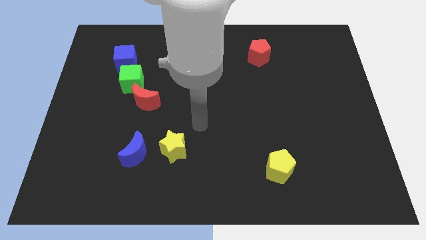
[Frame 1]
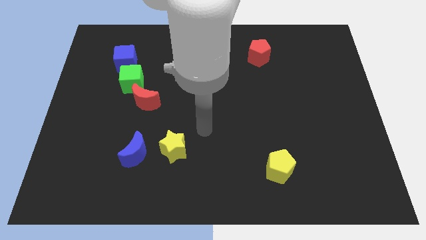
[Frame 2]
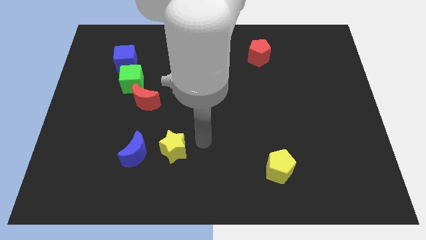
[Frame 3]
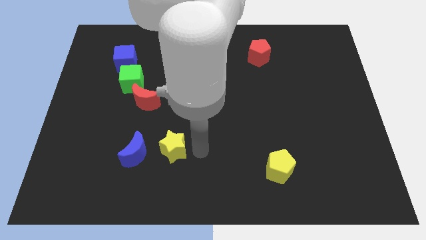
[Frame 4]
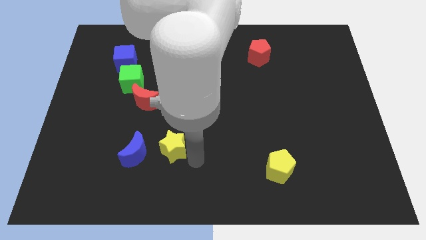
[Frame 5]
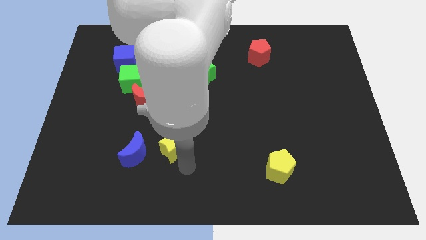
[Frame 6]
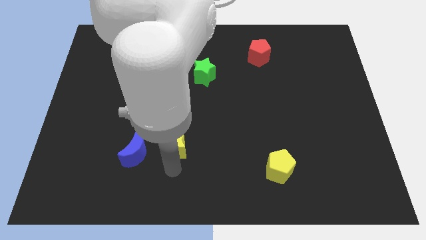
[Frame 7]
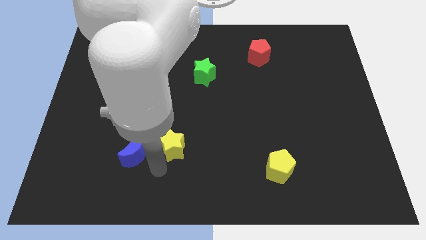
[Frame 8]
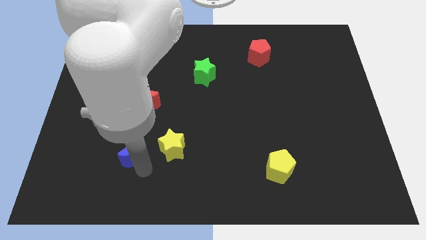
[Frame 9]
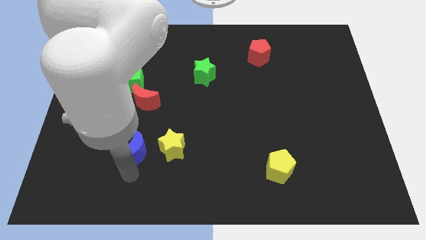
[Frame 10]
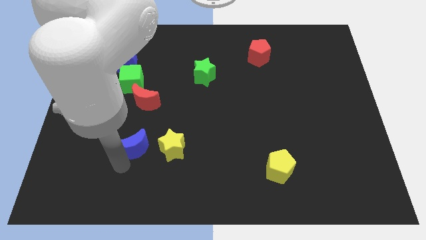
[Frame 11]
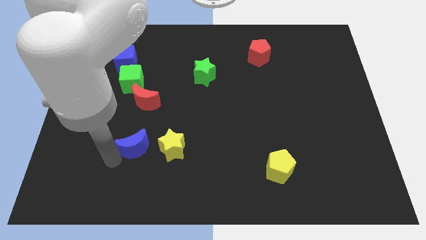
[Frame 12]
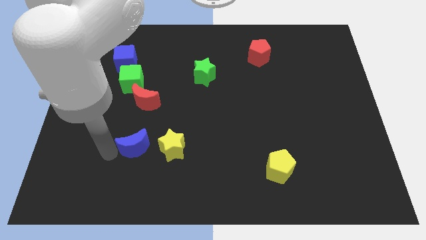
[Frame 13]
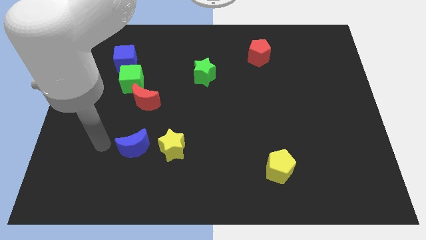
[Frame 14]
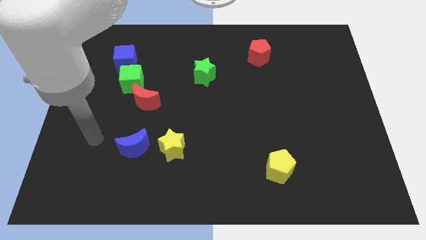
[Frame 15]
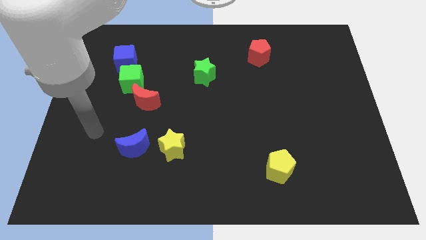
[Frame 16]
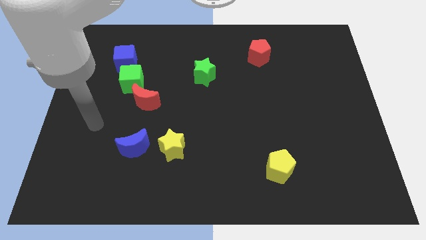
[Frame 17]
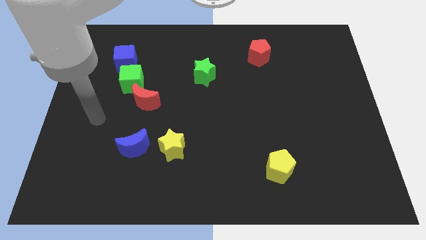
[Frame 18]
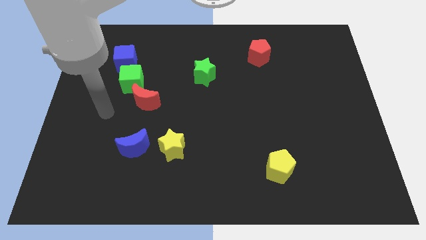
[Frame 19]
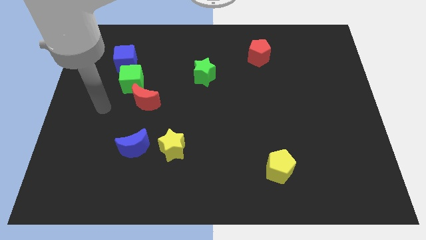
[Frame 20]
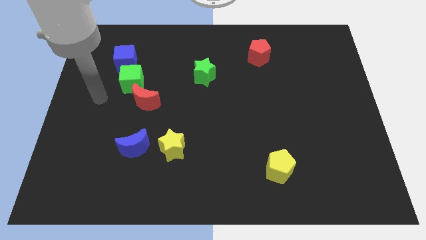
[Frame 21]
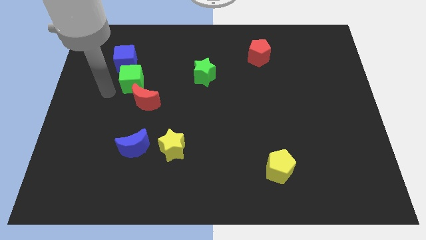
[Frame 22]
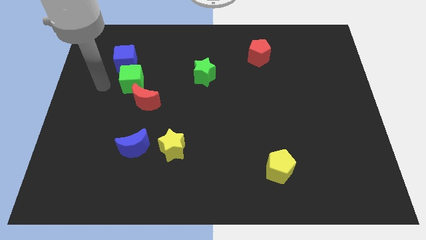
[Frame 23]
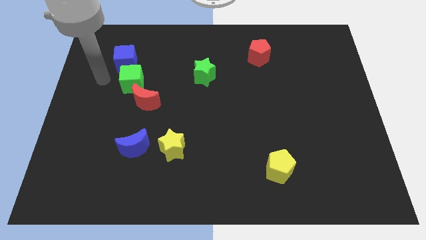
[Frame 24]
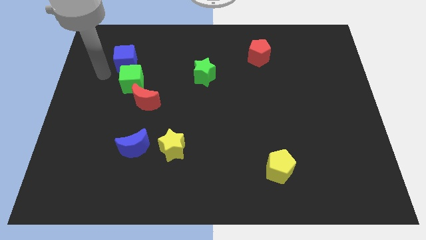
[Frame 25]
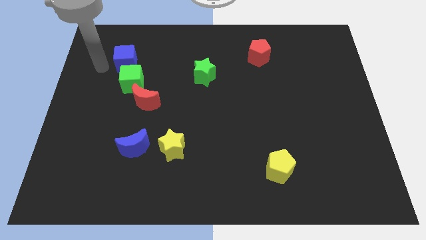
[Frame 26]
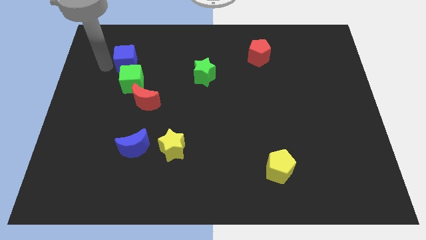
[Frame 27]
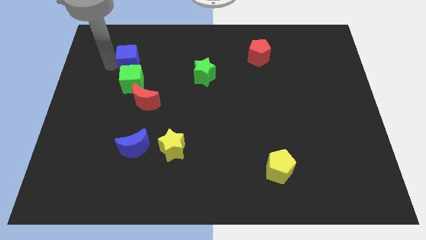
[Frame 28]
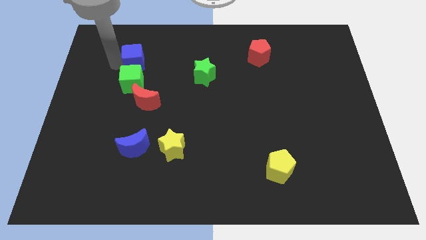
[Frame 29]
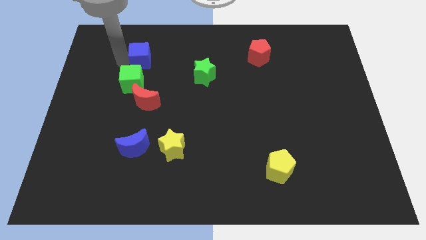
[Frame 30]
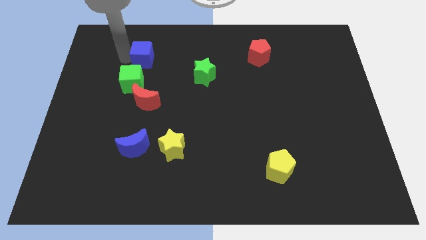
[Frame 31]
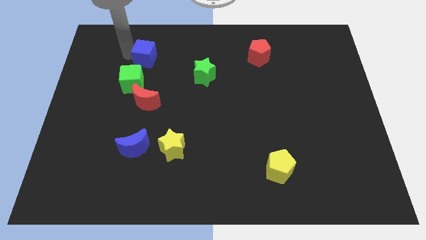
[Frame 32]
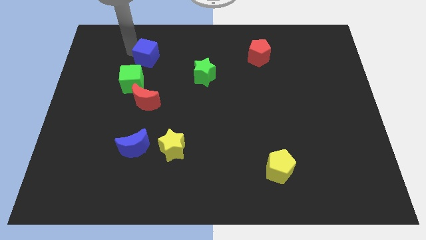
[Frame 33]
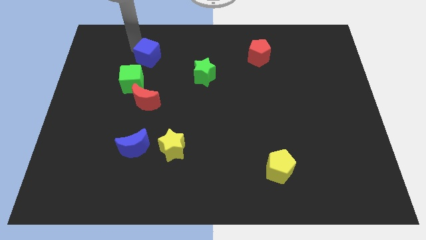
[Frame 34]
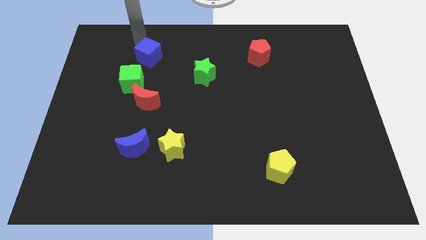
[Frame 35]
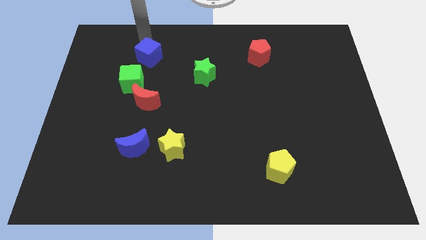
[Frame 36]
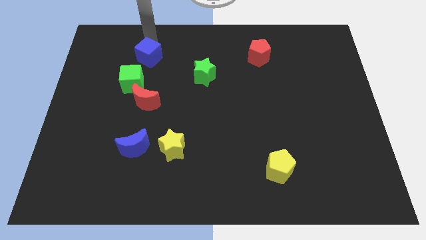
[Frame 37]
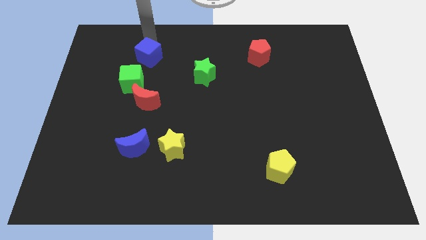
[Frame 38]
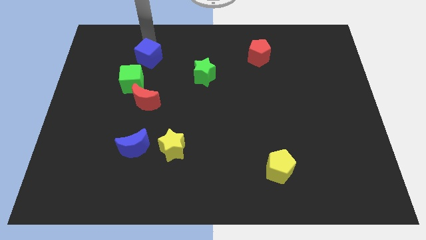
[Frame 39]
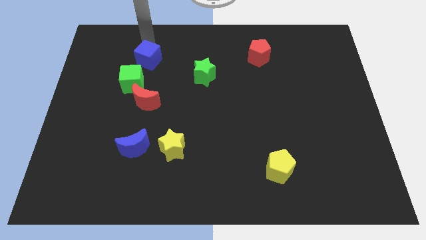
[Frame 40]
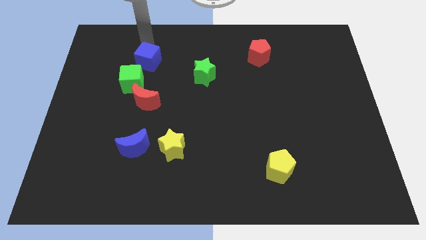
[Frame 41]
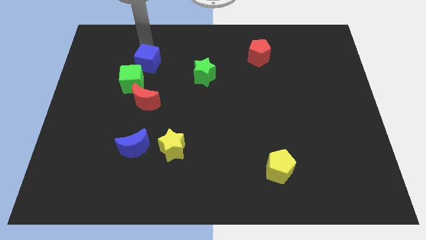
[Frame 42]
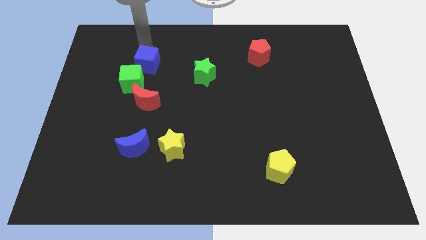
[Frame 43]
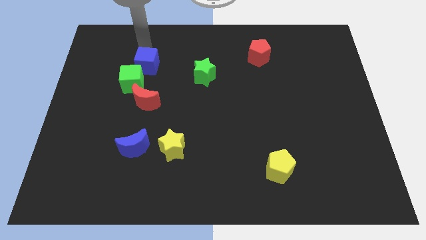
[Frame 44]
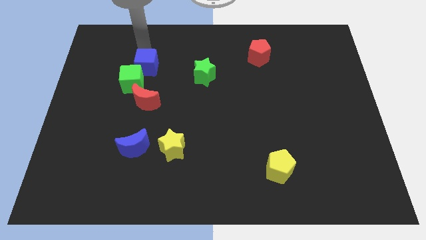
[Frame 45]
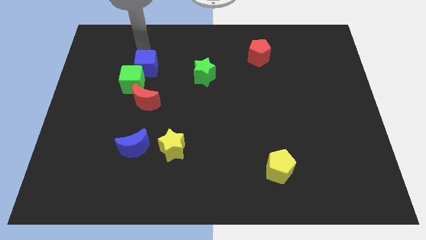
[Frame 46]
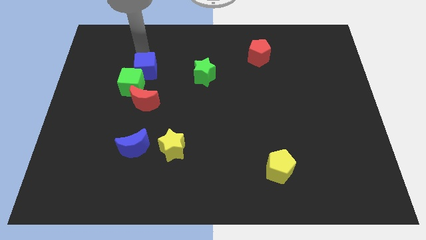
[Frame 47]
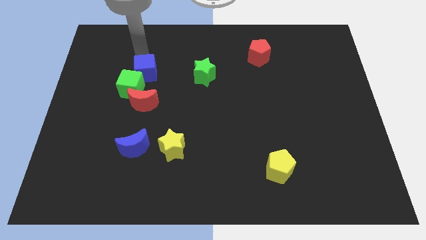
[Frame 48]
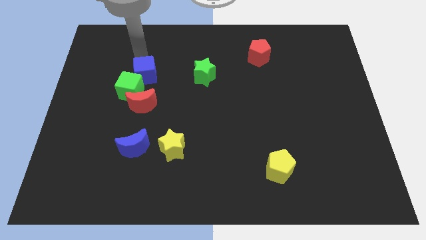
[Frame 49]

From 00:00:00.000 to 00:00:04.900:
slide the blue cube somewhat down and right

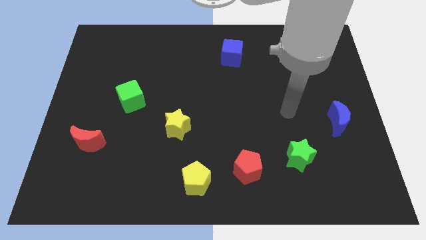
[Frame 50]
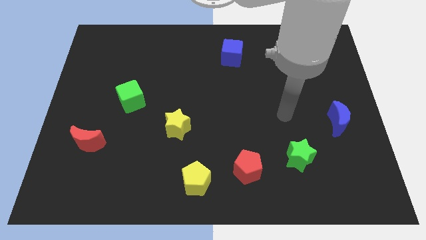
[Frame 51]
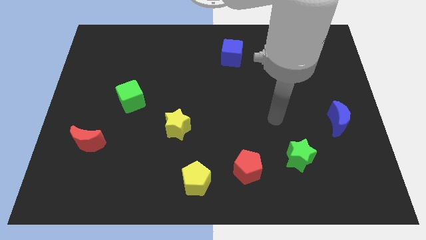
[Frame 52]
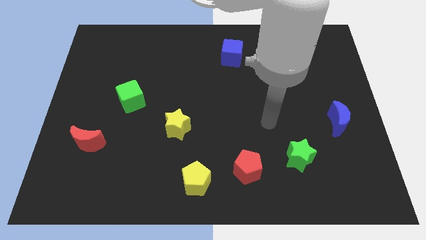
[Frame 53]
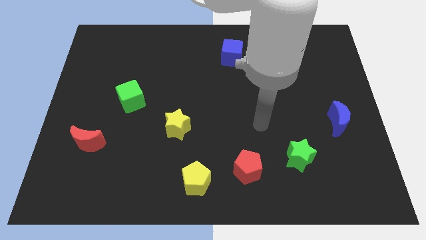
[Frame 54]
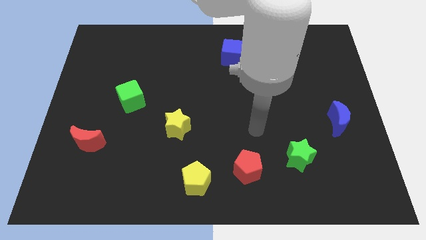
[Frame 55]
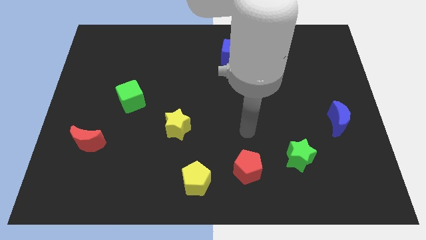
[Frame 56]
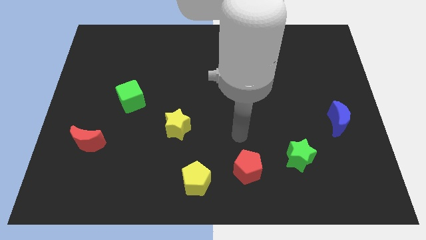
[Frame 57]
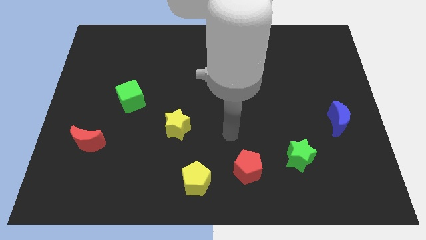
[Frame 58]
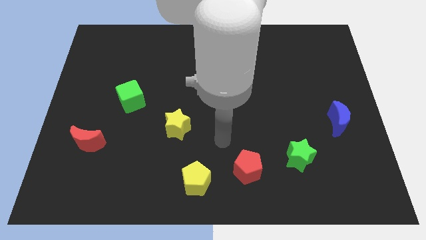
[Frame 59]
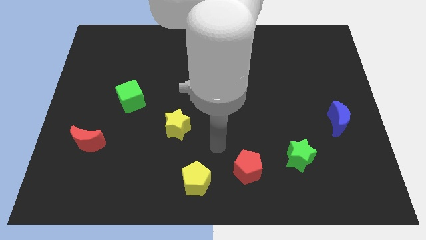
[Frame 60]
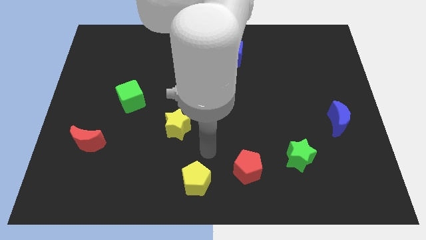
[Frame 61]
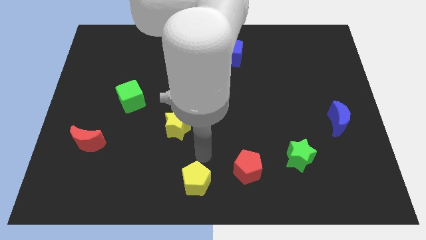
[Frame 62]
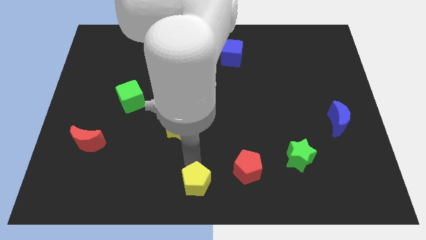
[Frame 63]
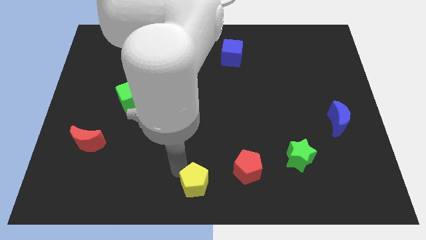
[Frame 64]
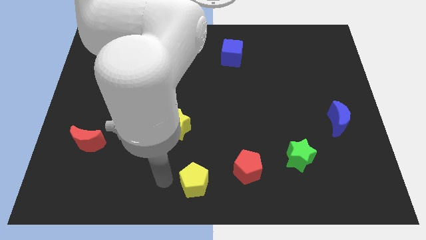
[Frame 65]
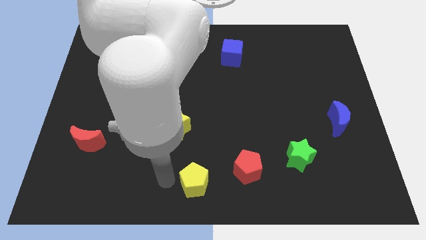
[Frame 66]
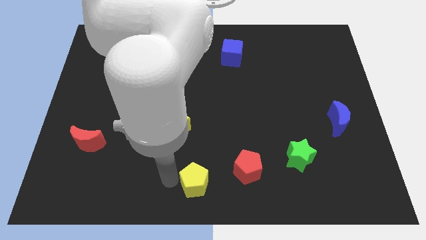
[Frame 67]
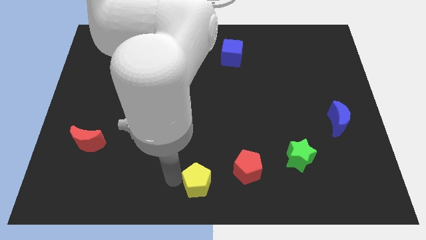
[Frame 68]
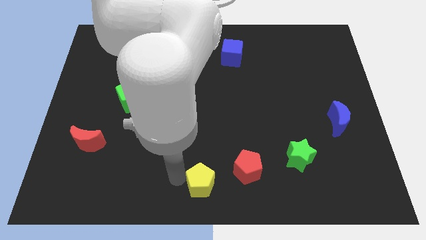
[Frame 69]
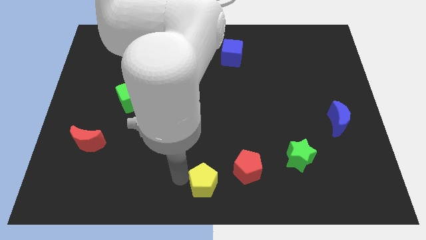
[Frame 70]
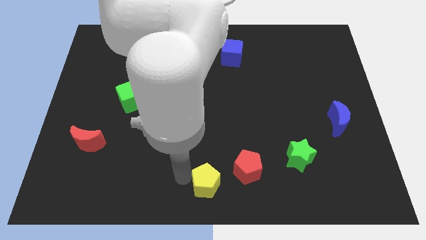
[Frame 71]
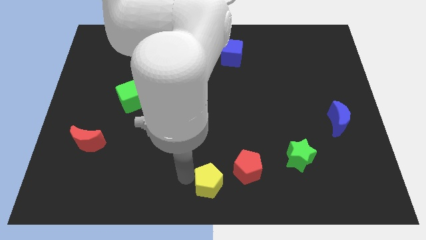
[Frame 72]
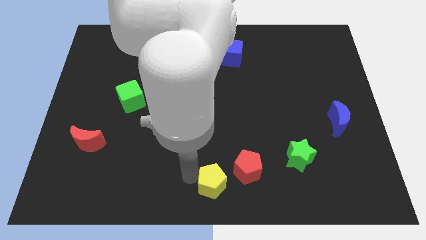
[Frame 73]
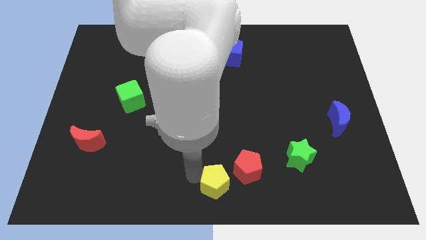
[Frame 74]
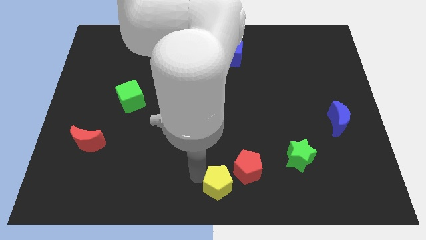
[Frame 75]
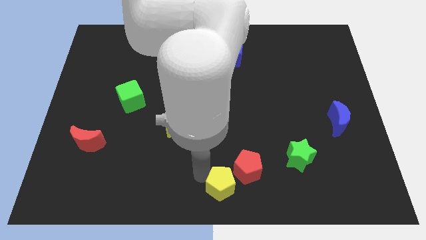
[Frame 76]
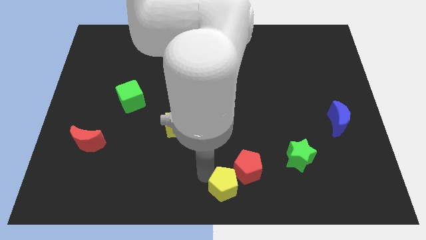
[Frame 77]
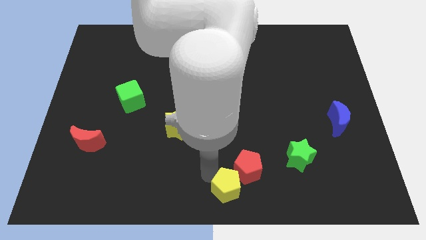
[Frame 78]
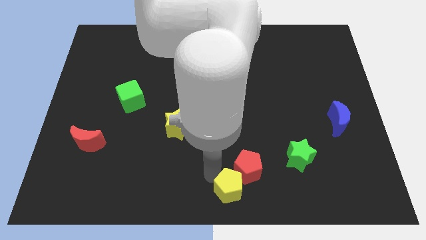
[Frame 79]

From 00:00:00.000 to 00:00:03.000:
push the yellow pentagon a little right

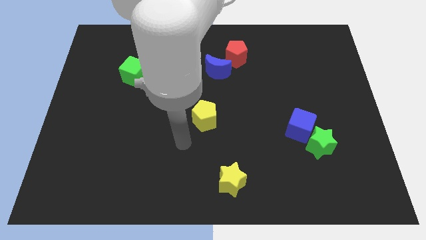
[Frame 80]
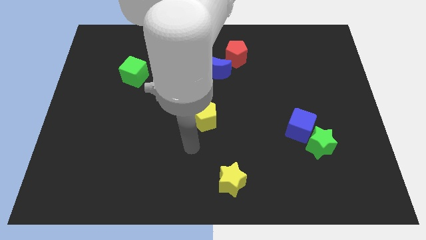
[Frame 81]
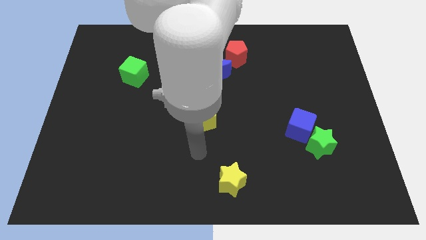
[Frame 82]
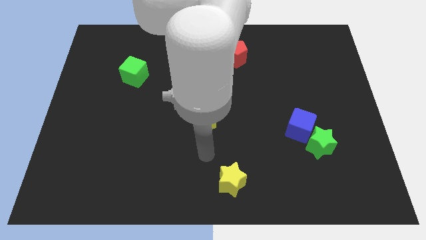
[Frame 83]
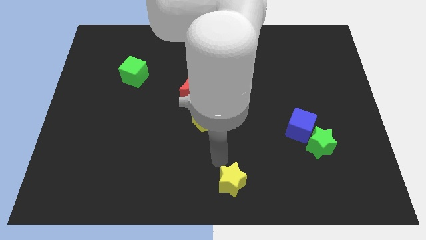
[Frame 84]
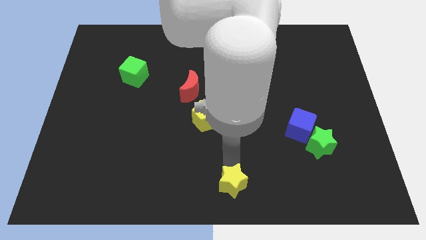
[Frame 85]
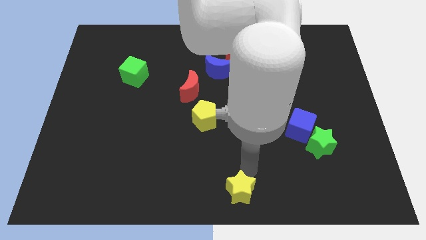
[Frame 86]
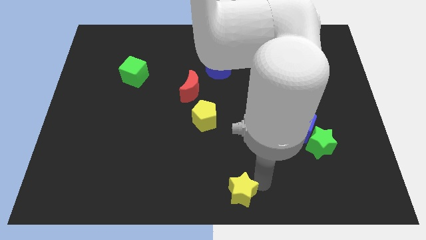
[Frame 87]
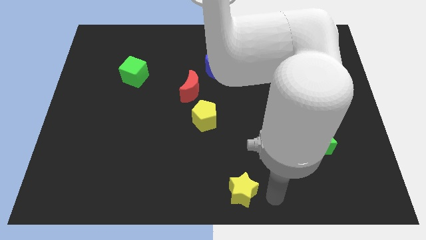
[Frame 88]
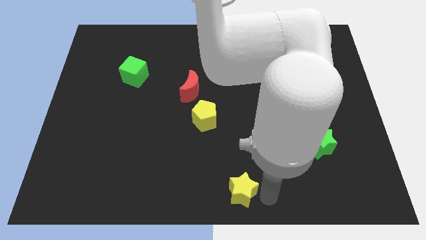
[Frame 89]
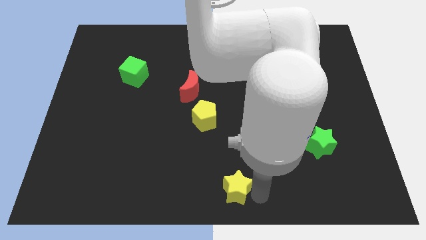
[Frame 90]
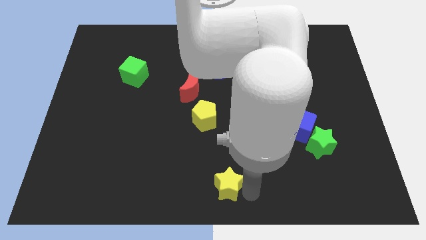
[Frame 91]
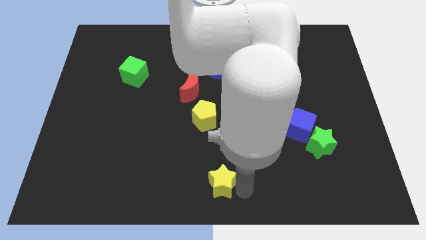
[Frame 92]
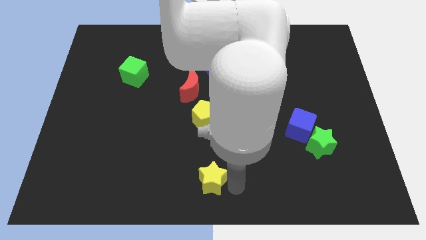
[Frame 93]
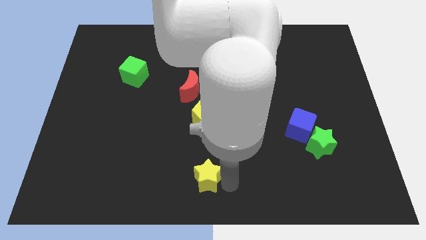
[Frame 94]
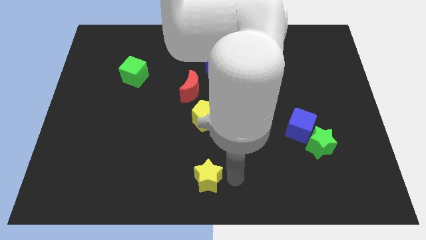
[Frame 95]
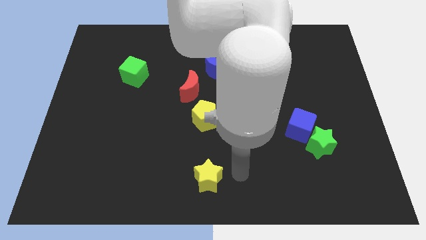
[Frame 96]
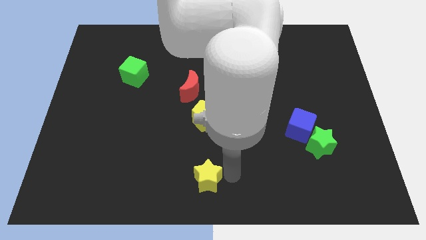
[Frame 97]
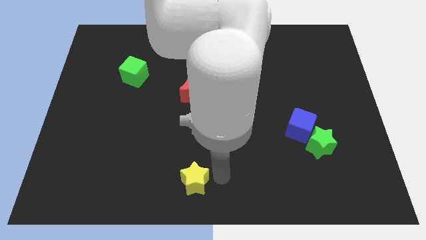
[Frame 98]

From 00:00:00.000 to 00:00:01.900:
move the yellow star to the left a bit
